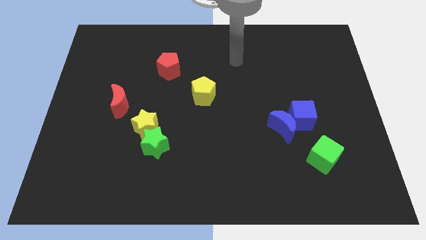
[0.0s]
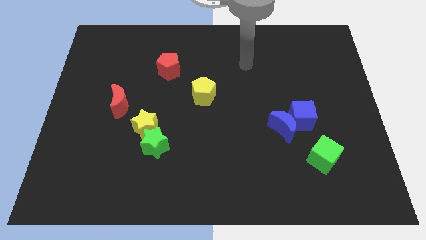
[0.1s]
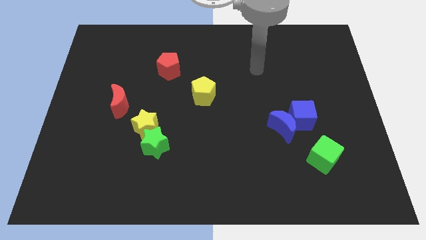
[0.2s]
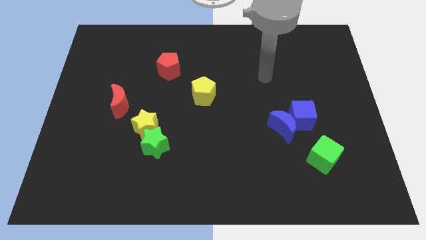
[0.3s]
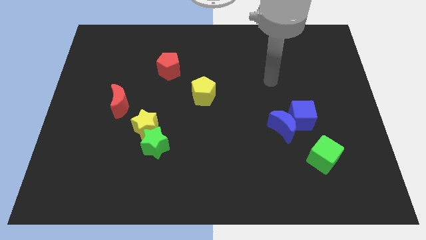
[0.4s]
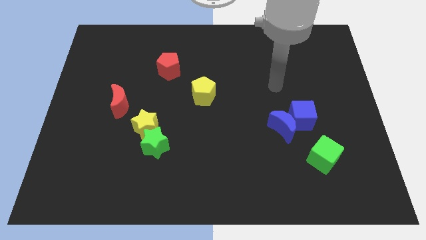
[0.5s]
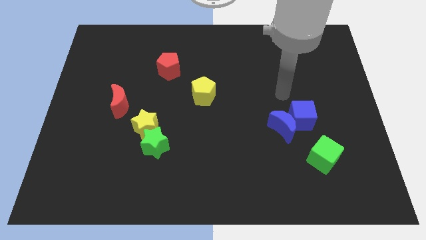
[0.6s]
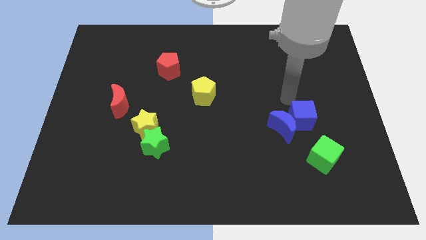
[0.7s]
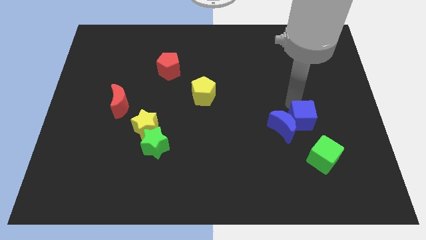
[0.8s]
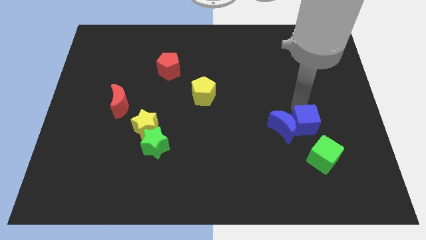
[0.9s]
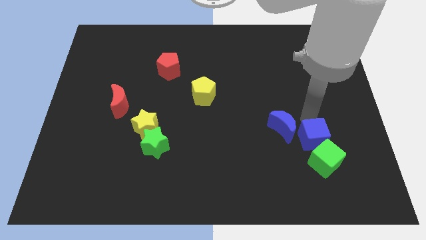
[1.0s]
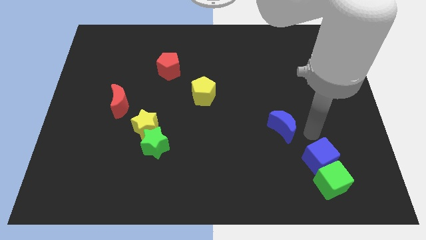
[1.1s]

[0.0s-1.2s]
separate the blue moon from the blue cube

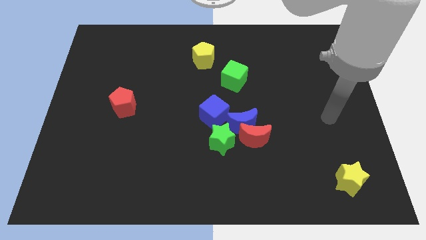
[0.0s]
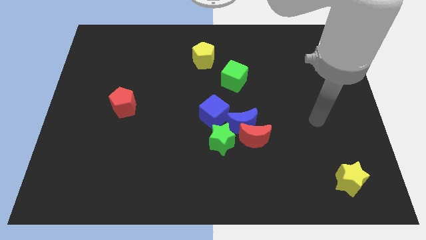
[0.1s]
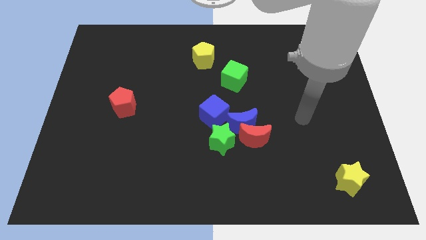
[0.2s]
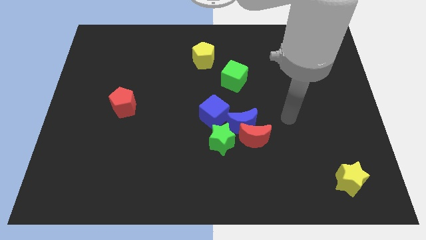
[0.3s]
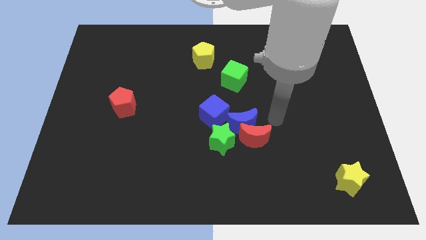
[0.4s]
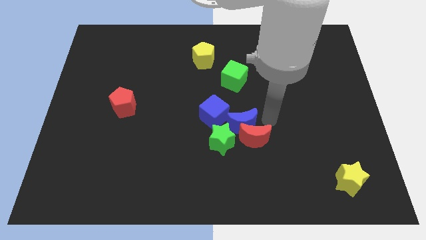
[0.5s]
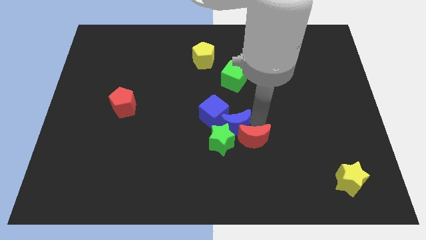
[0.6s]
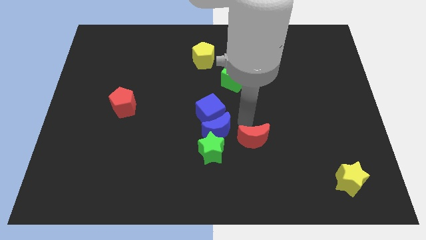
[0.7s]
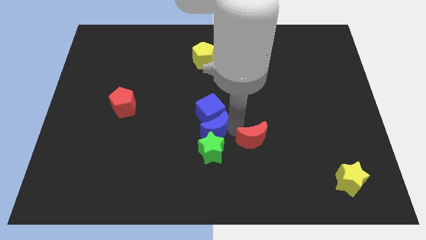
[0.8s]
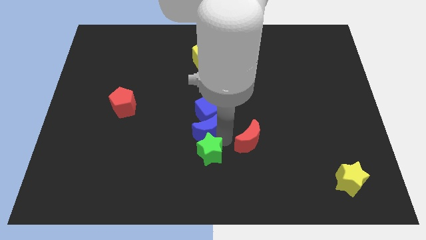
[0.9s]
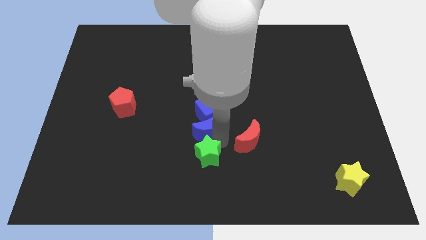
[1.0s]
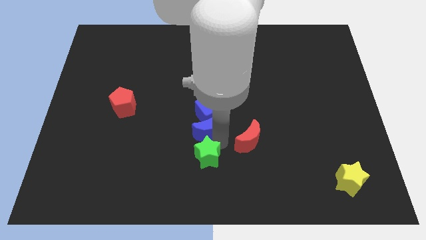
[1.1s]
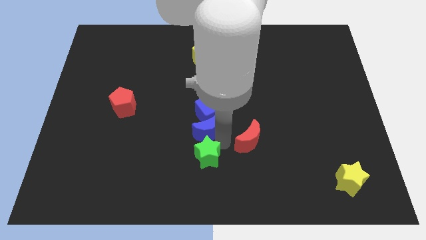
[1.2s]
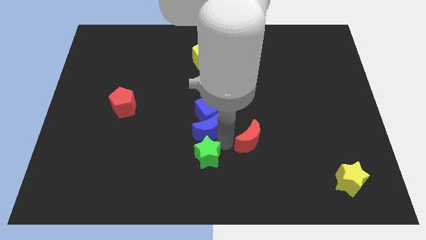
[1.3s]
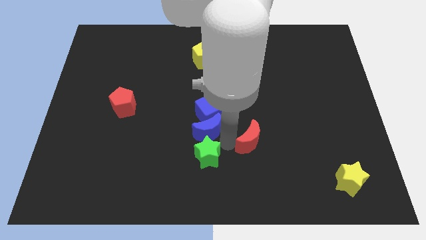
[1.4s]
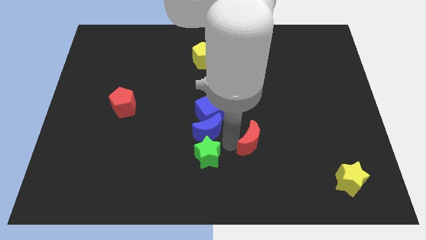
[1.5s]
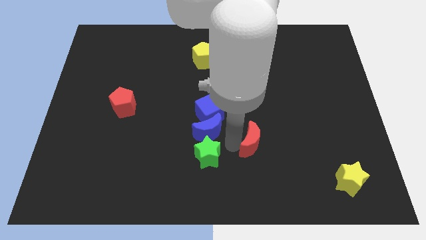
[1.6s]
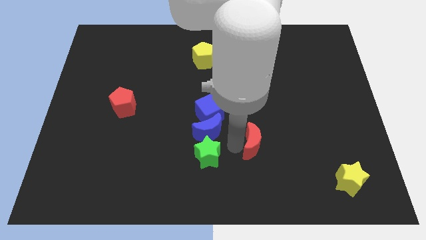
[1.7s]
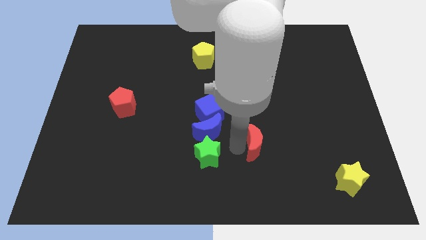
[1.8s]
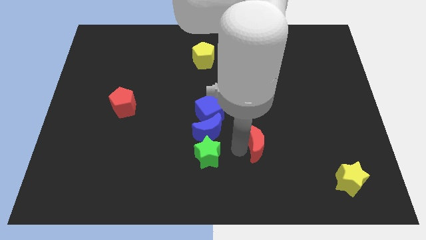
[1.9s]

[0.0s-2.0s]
separate the red moon from the blue moon and green star

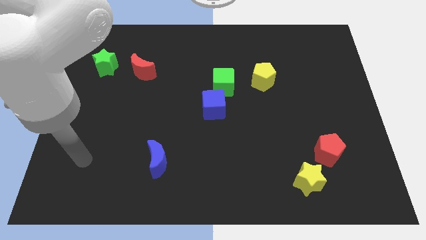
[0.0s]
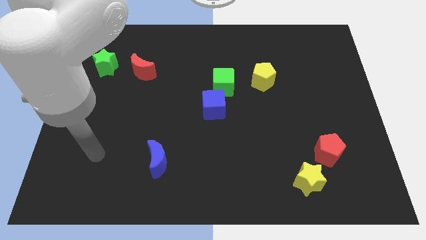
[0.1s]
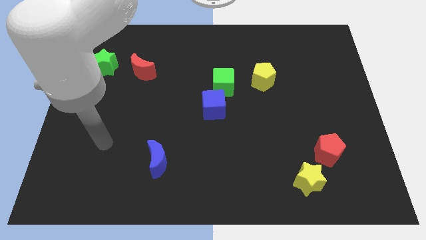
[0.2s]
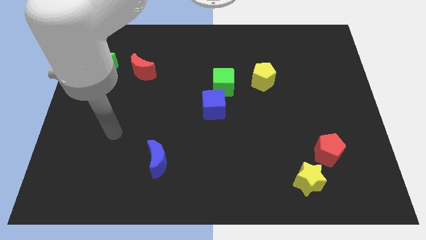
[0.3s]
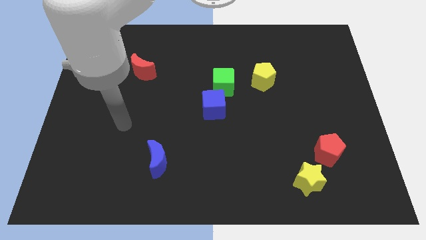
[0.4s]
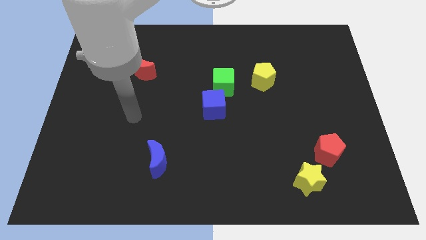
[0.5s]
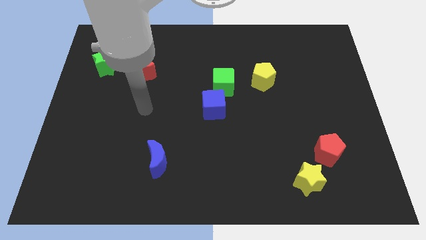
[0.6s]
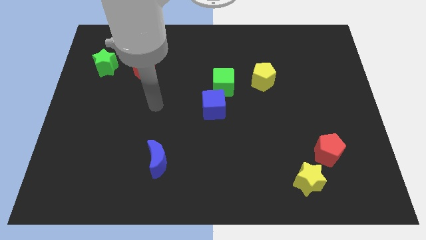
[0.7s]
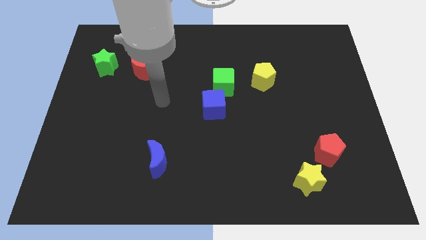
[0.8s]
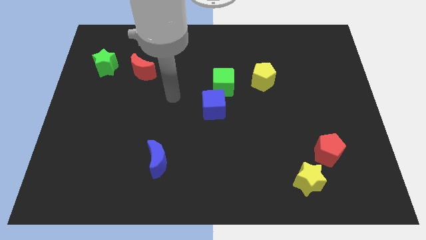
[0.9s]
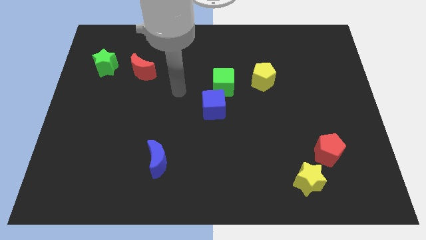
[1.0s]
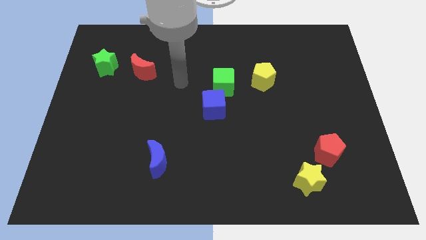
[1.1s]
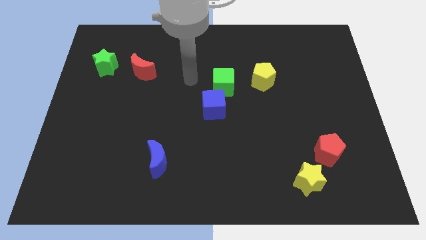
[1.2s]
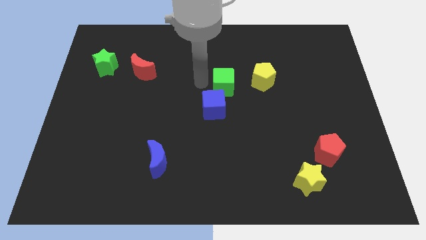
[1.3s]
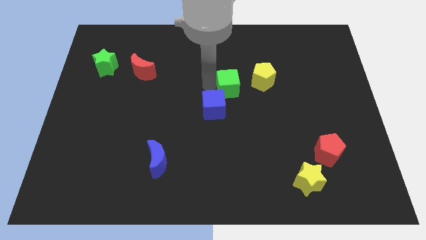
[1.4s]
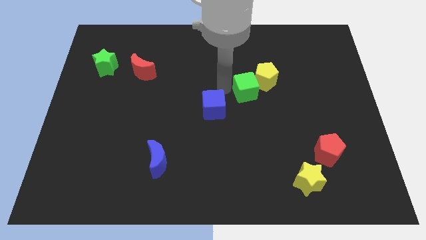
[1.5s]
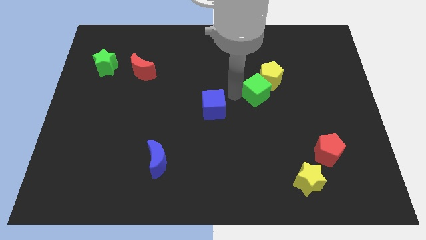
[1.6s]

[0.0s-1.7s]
pull the blue cube apart from the green cube

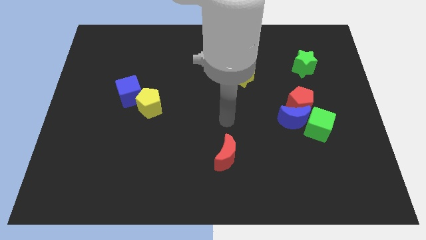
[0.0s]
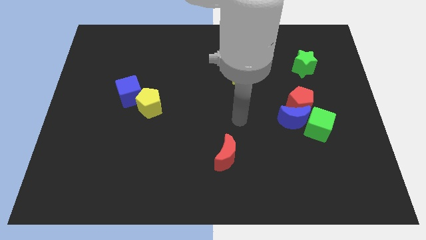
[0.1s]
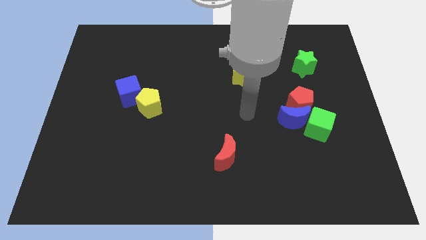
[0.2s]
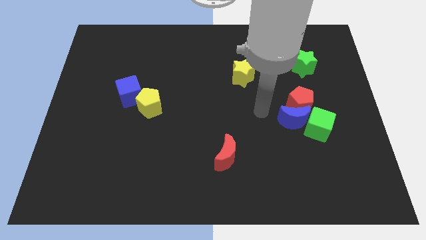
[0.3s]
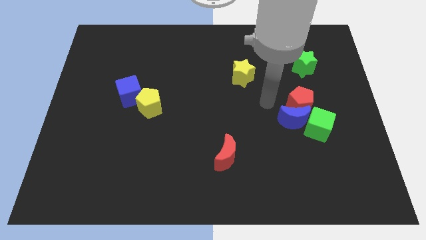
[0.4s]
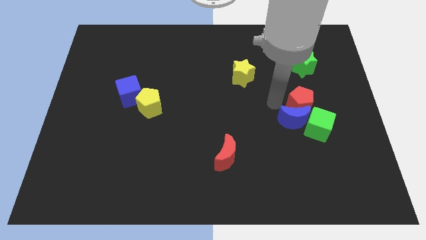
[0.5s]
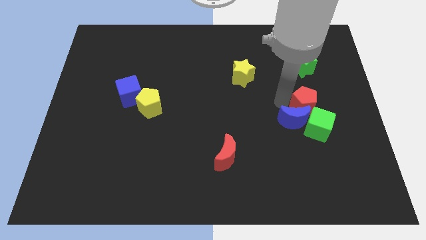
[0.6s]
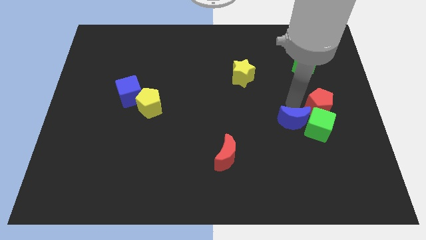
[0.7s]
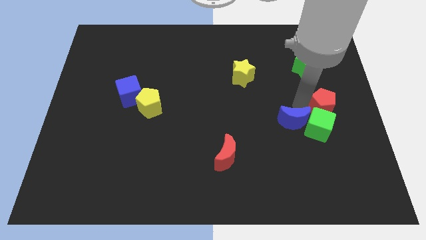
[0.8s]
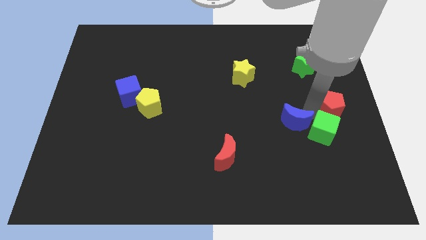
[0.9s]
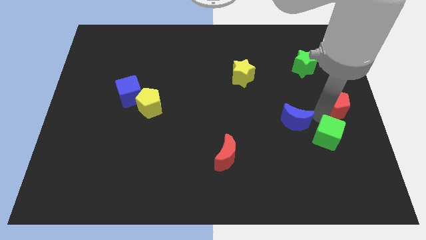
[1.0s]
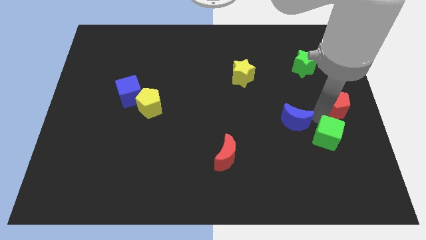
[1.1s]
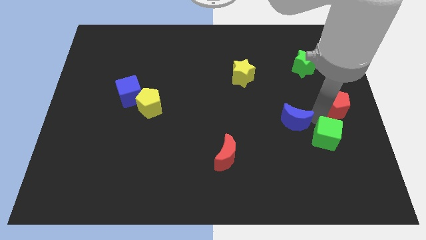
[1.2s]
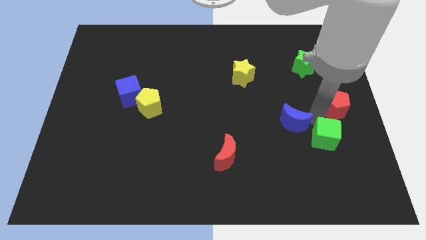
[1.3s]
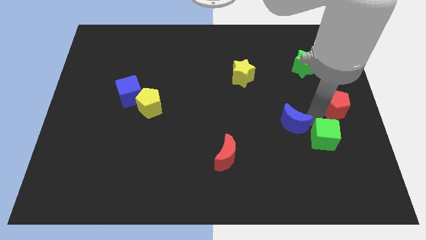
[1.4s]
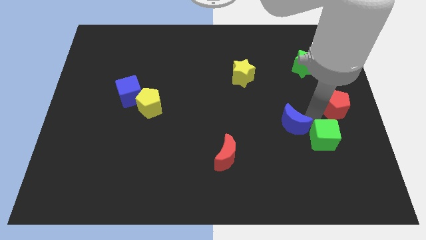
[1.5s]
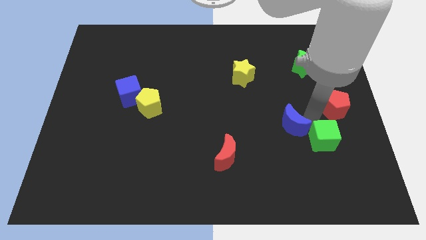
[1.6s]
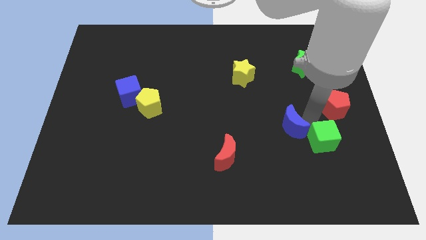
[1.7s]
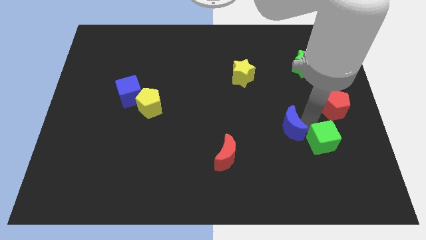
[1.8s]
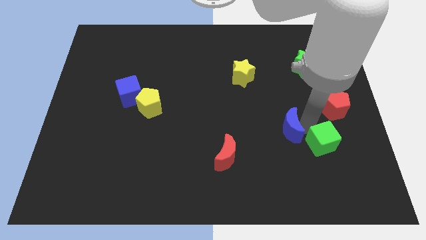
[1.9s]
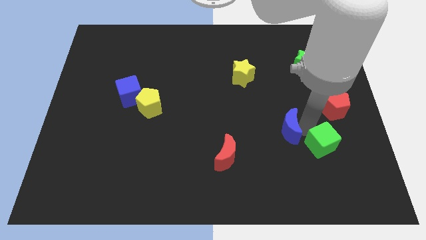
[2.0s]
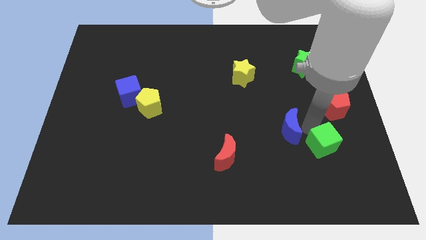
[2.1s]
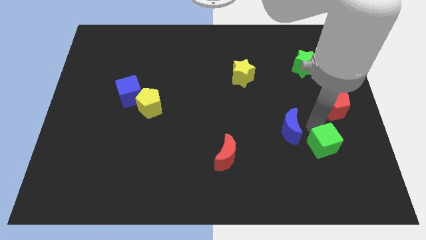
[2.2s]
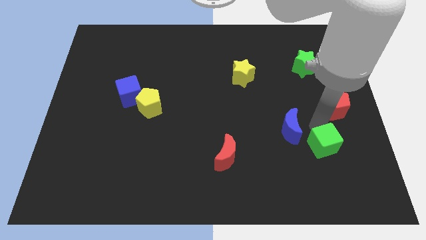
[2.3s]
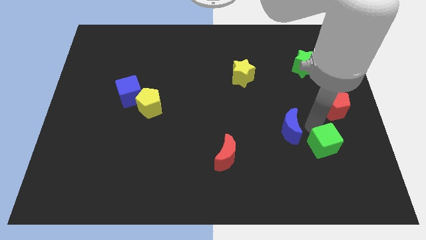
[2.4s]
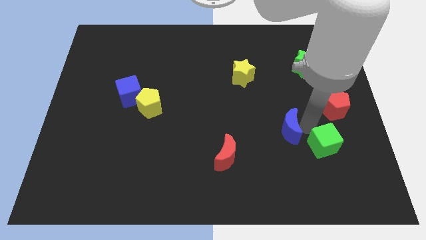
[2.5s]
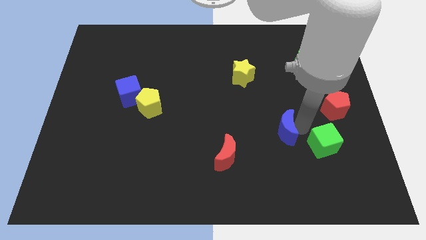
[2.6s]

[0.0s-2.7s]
separate the blue moon from the red pentagon and green cube

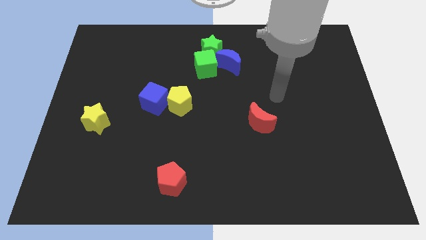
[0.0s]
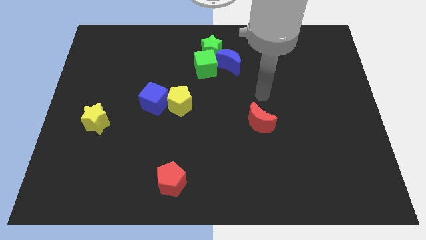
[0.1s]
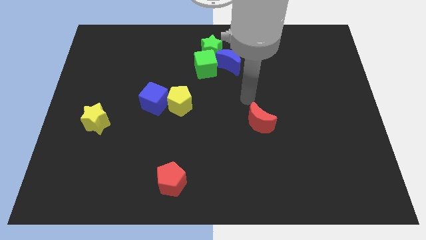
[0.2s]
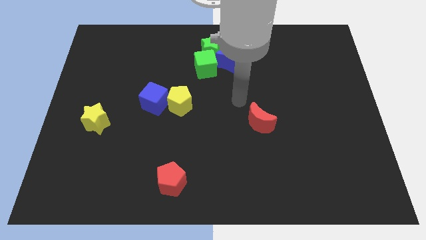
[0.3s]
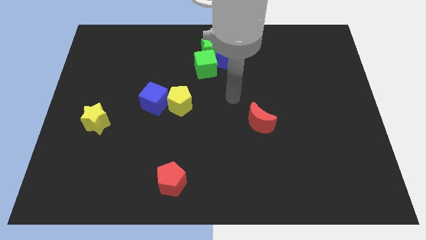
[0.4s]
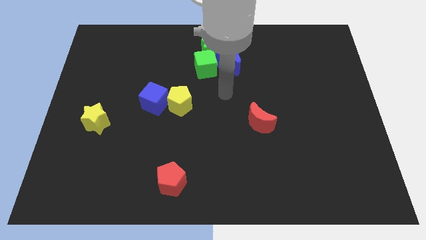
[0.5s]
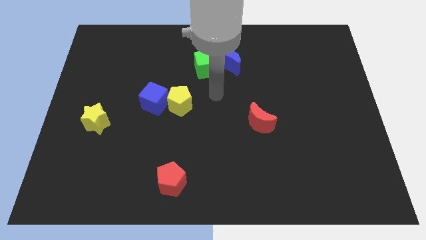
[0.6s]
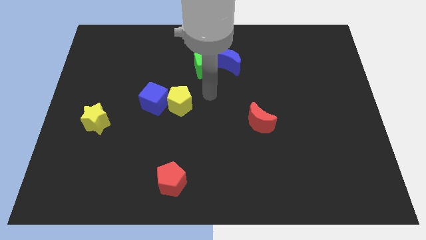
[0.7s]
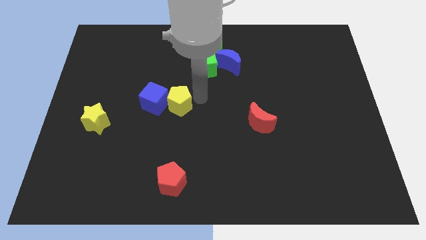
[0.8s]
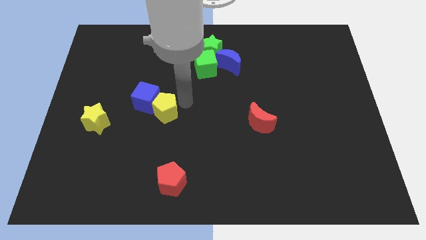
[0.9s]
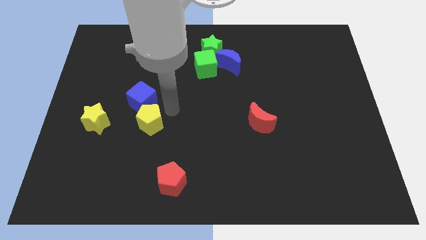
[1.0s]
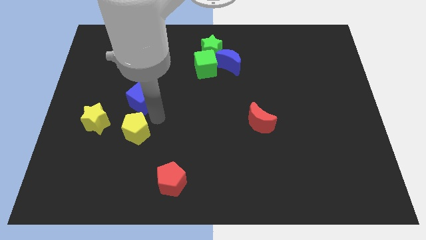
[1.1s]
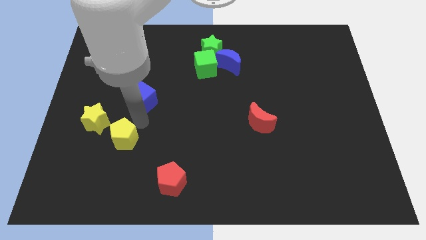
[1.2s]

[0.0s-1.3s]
pull the blue cube apart from the yellow pentagon

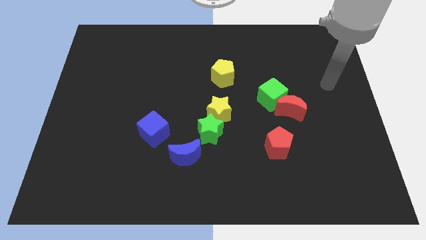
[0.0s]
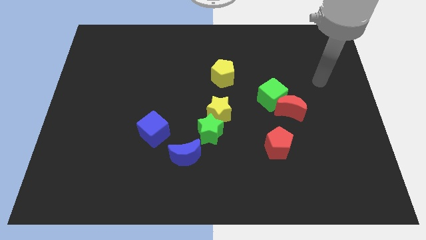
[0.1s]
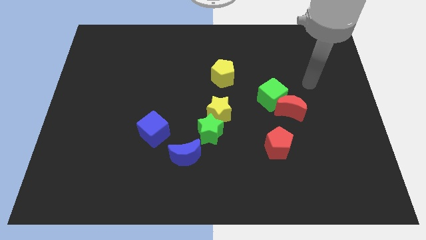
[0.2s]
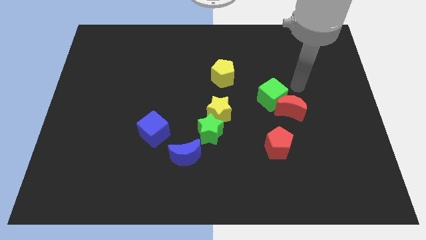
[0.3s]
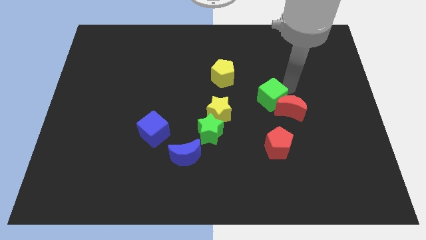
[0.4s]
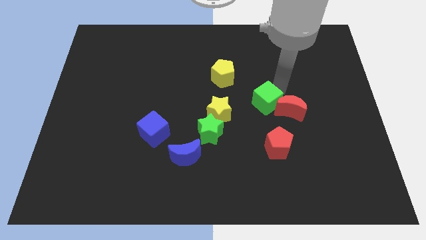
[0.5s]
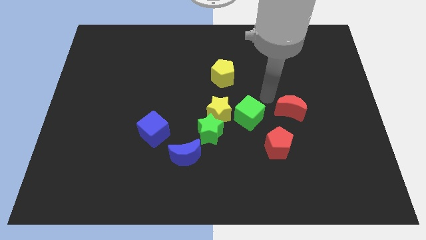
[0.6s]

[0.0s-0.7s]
pull the red moon apart from the green cube
